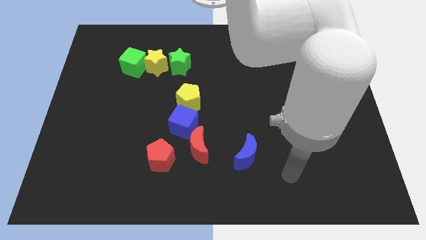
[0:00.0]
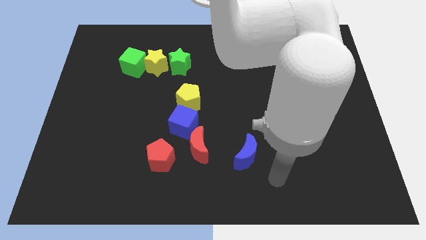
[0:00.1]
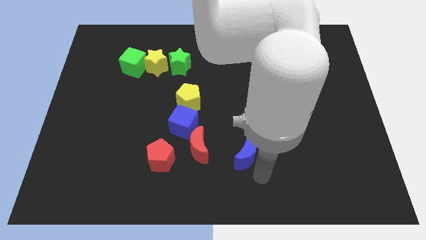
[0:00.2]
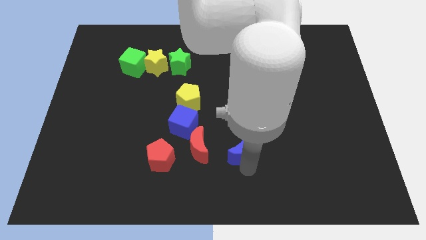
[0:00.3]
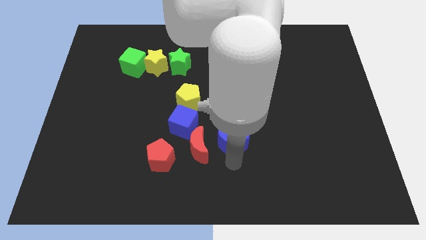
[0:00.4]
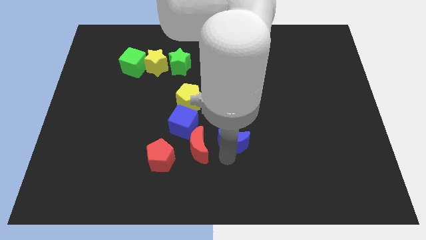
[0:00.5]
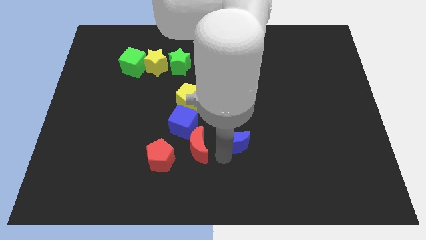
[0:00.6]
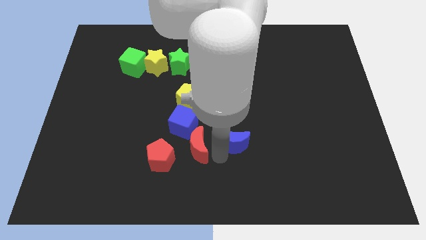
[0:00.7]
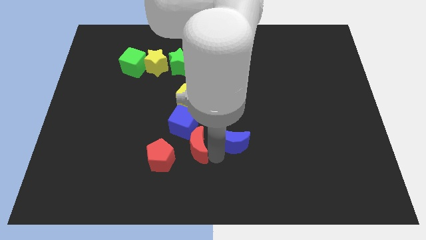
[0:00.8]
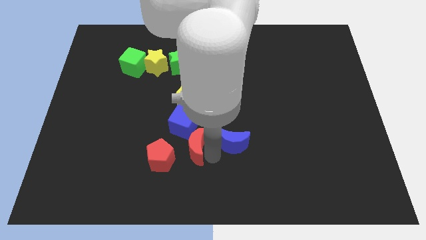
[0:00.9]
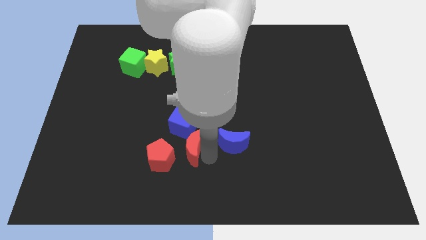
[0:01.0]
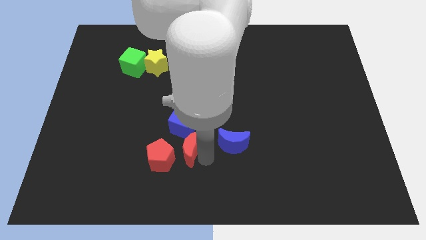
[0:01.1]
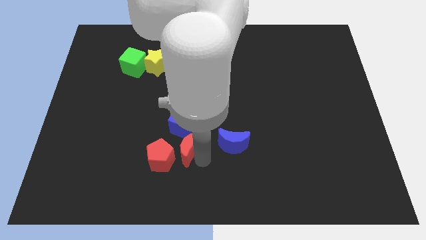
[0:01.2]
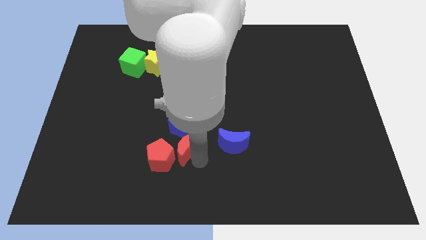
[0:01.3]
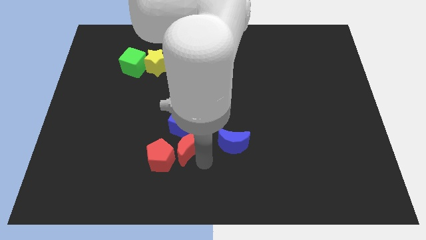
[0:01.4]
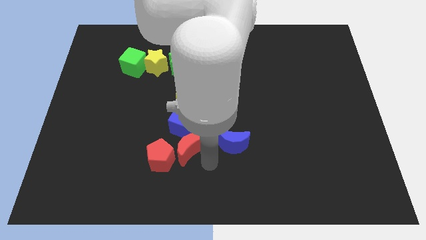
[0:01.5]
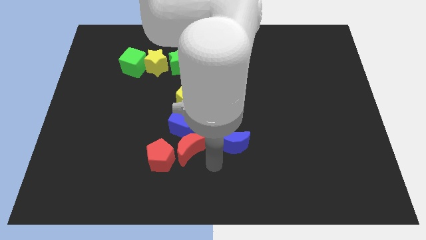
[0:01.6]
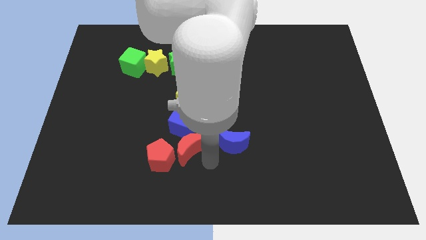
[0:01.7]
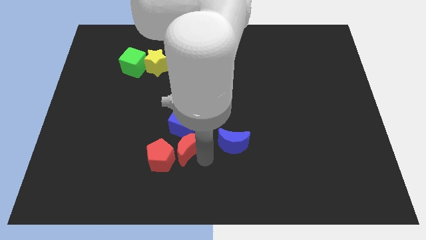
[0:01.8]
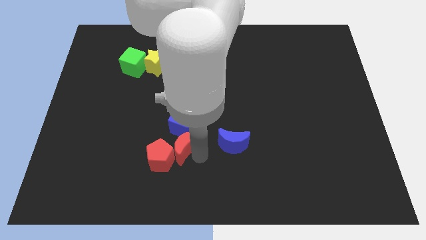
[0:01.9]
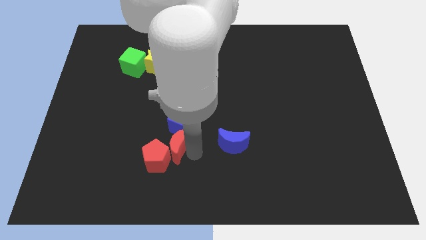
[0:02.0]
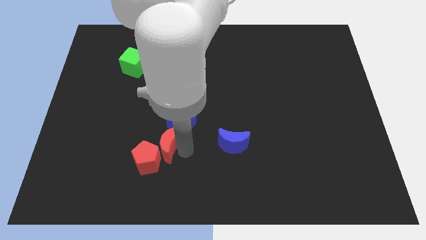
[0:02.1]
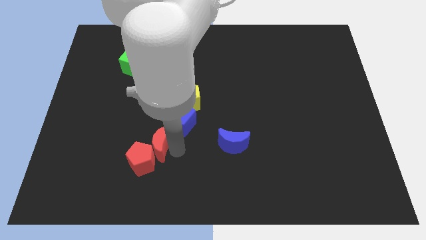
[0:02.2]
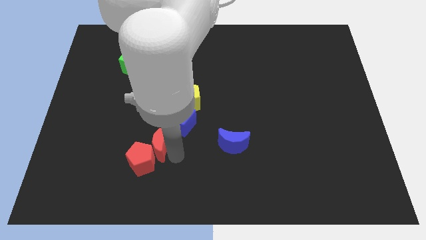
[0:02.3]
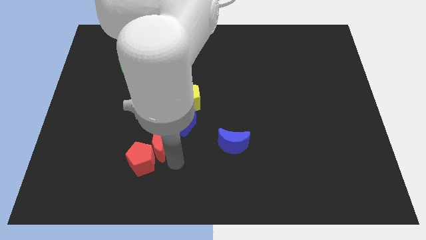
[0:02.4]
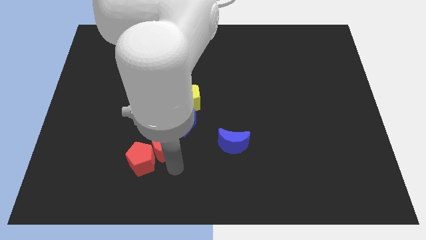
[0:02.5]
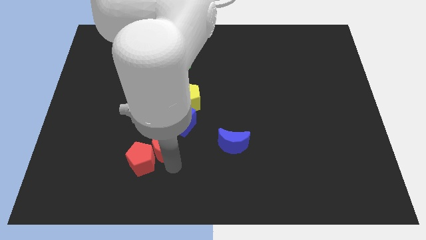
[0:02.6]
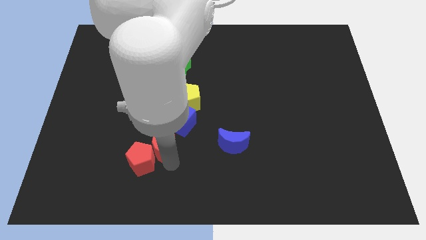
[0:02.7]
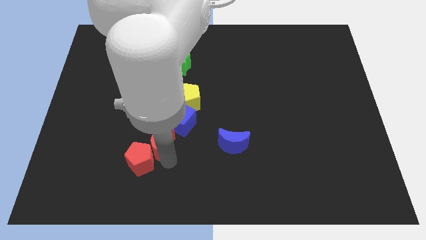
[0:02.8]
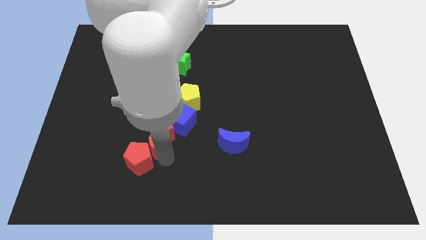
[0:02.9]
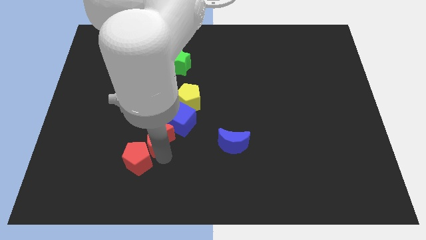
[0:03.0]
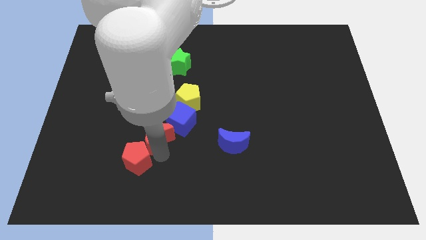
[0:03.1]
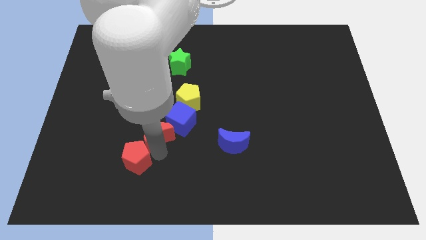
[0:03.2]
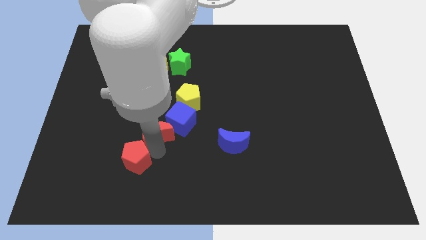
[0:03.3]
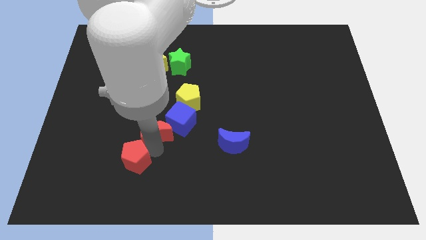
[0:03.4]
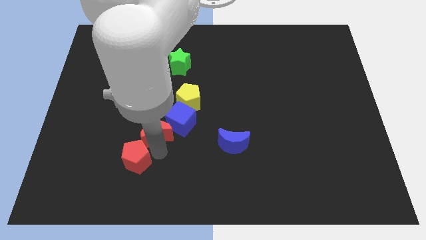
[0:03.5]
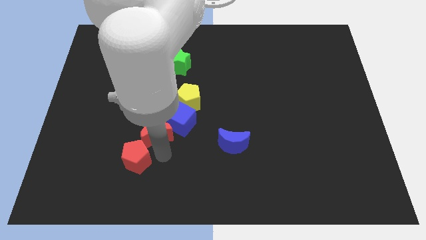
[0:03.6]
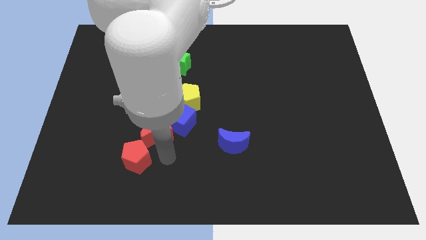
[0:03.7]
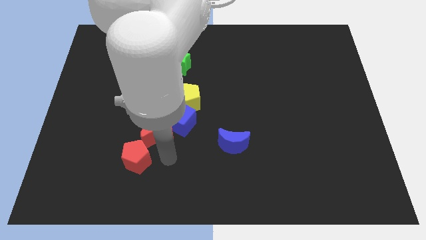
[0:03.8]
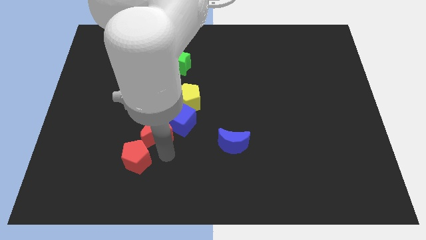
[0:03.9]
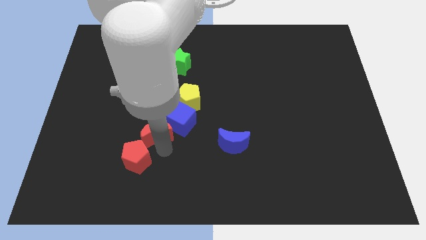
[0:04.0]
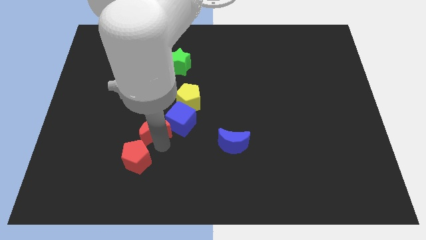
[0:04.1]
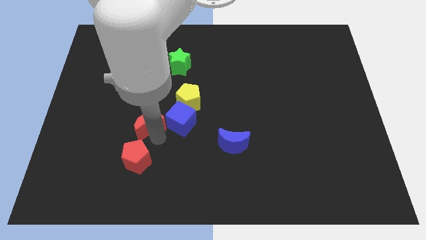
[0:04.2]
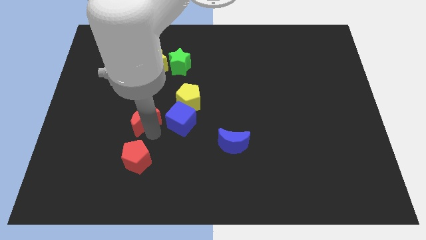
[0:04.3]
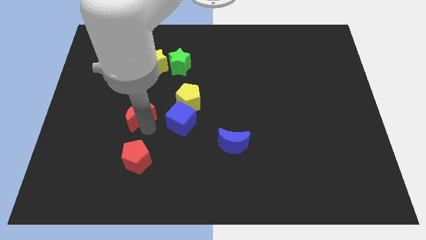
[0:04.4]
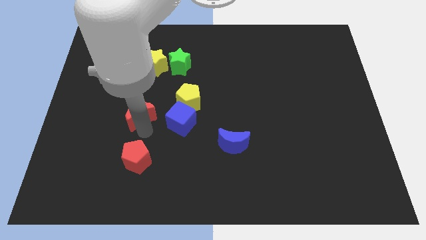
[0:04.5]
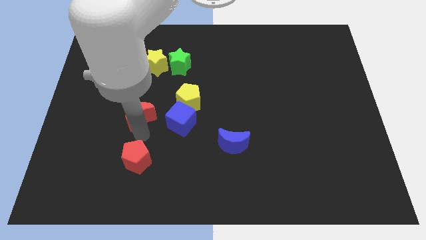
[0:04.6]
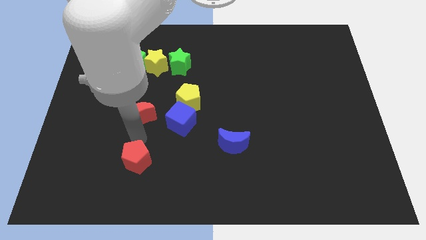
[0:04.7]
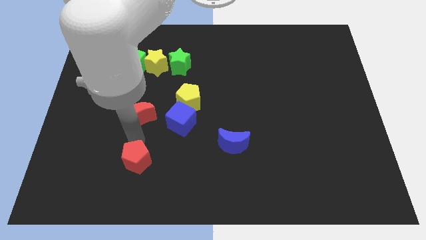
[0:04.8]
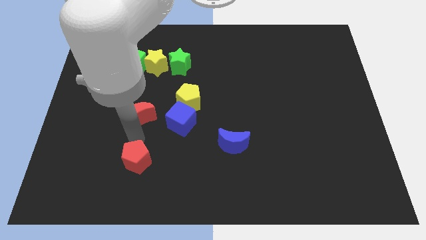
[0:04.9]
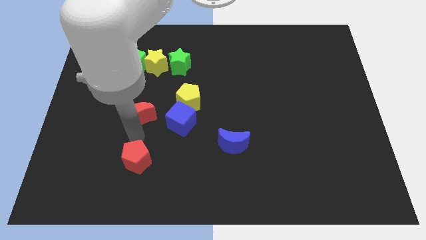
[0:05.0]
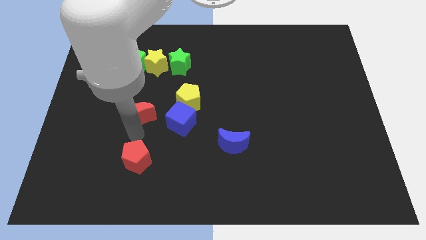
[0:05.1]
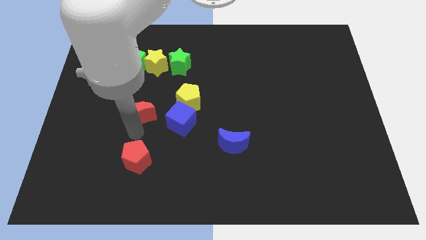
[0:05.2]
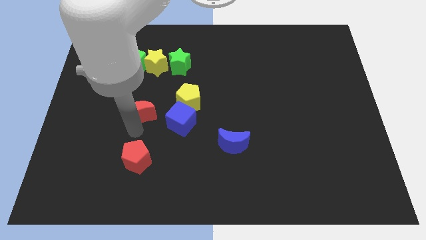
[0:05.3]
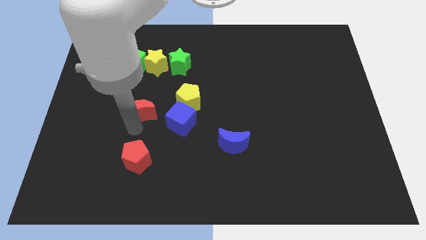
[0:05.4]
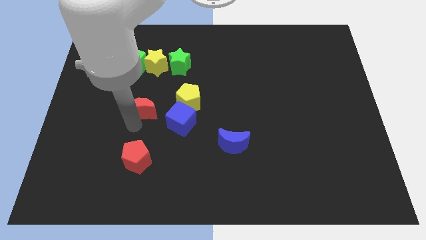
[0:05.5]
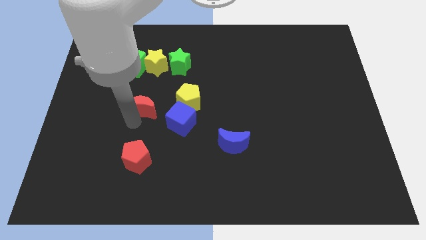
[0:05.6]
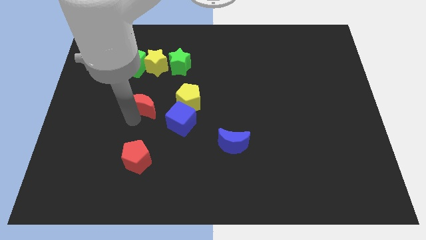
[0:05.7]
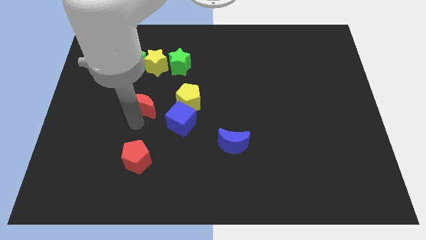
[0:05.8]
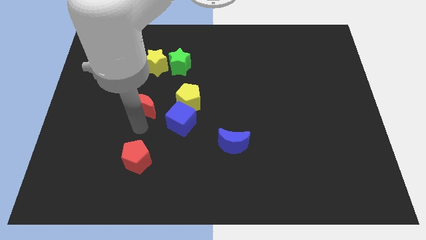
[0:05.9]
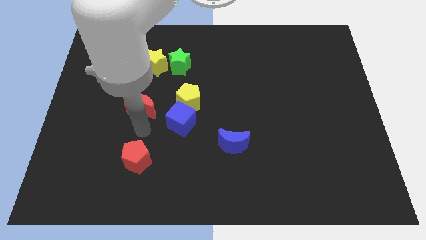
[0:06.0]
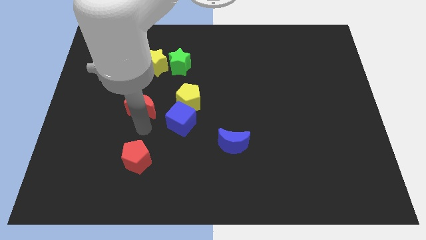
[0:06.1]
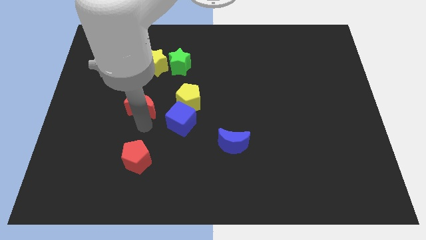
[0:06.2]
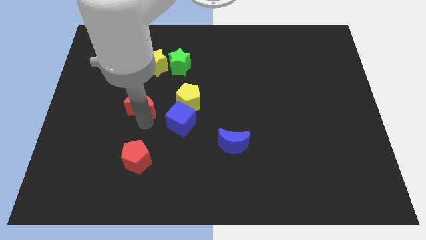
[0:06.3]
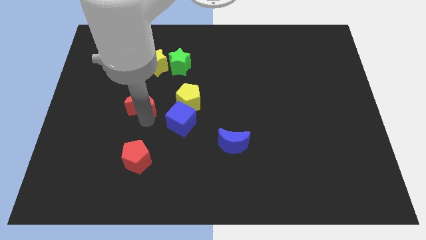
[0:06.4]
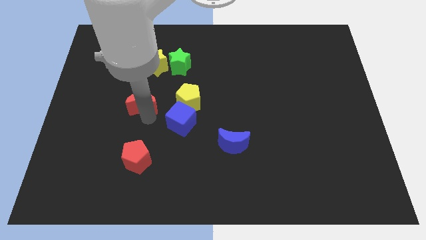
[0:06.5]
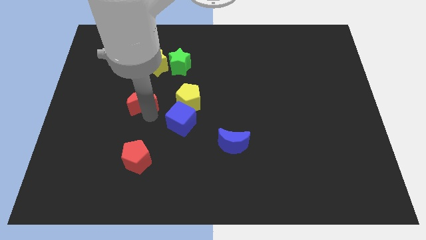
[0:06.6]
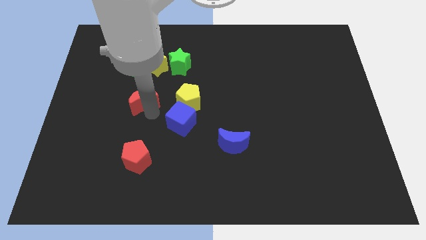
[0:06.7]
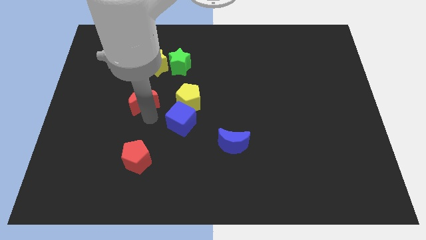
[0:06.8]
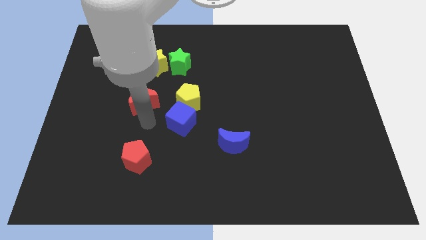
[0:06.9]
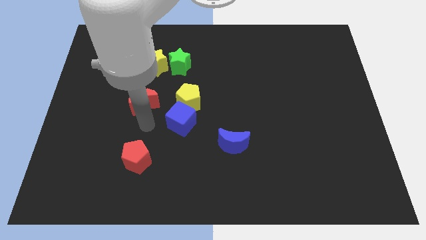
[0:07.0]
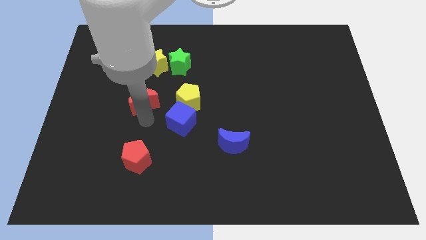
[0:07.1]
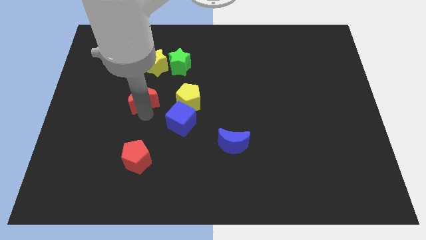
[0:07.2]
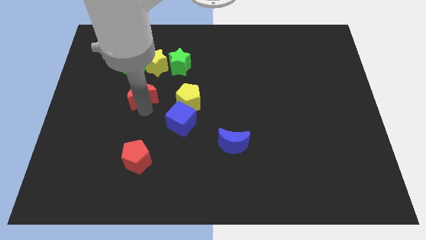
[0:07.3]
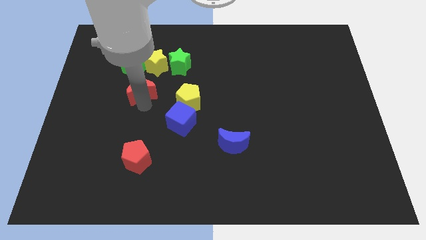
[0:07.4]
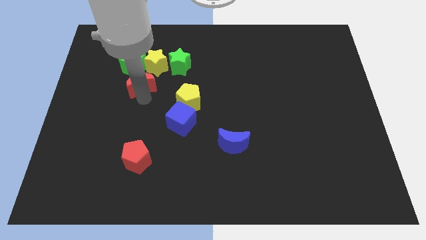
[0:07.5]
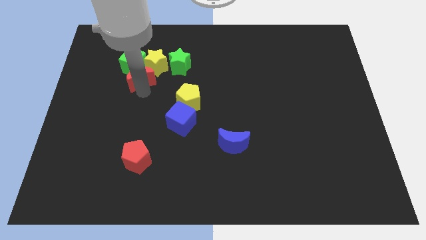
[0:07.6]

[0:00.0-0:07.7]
slide the red moon next to the green cube
